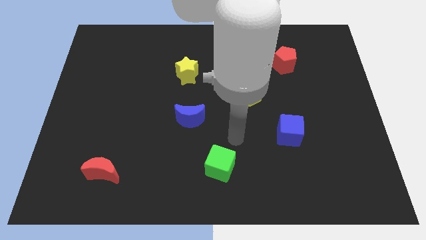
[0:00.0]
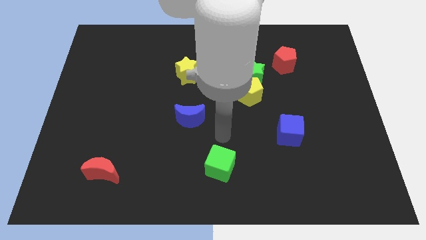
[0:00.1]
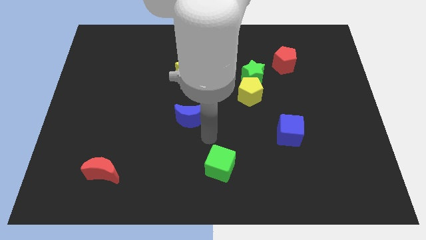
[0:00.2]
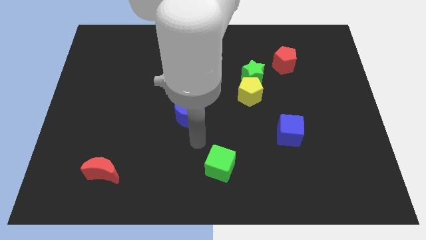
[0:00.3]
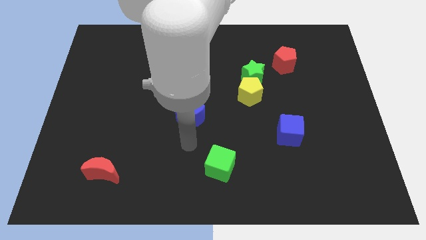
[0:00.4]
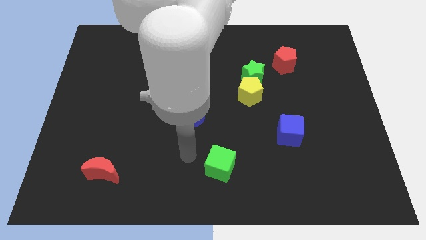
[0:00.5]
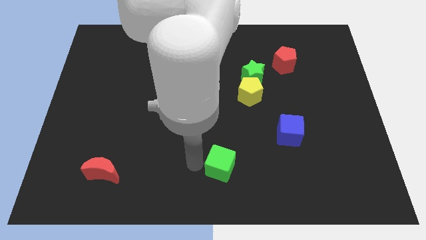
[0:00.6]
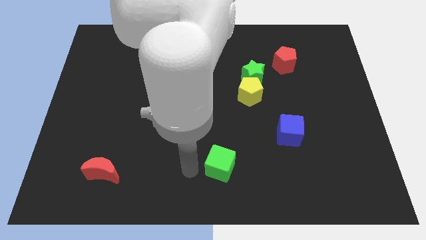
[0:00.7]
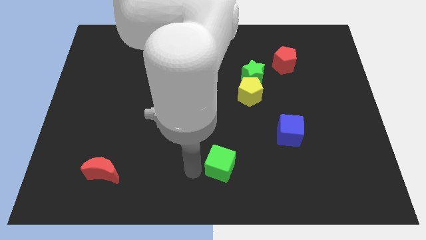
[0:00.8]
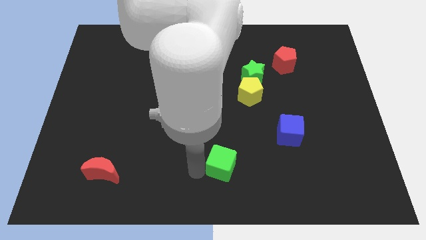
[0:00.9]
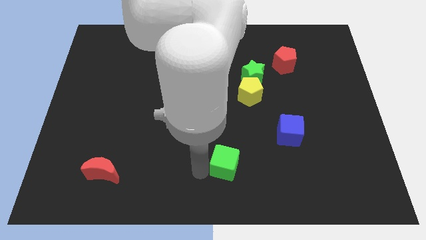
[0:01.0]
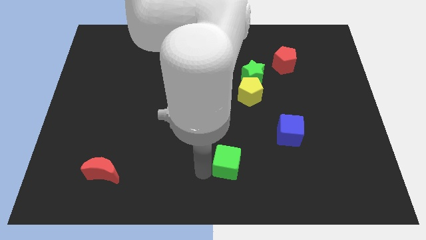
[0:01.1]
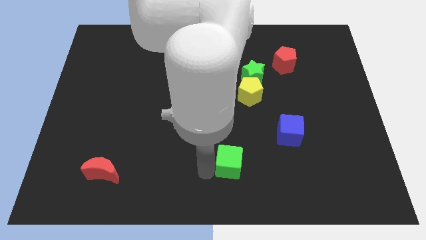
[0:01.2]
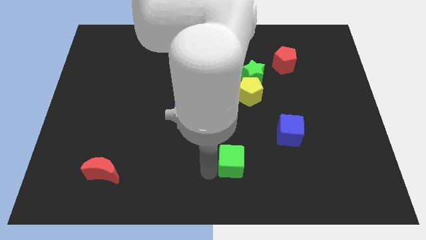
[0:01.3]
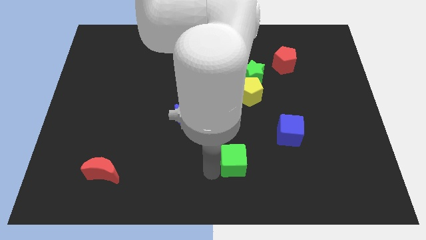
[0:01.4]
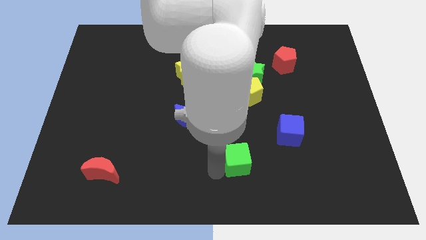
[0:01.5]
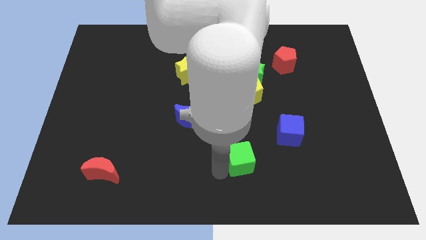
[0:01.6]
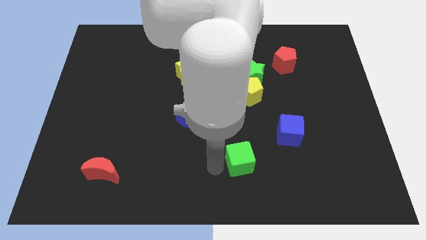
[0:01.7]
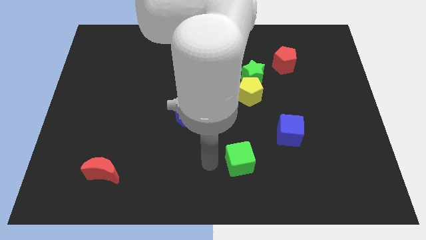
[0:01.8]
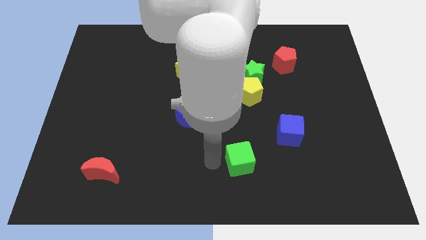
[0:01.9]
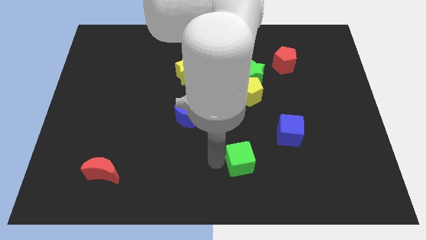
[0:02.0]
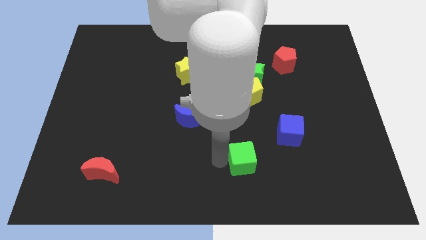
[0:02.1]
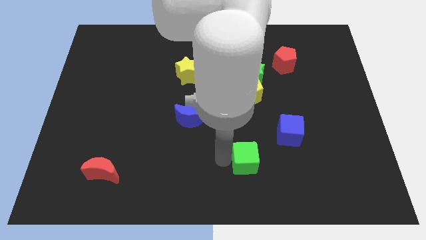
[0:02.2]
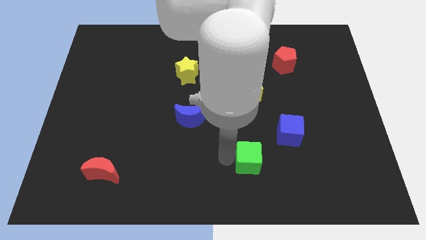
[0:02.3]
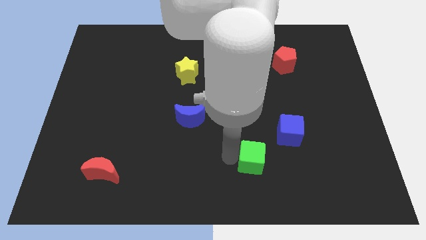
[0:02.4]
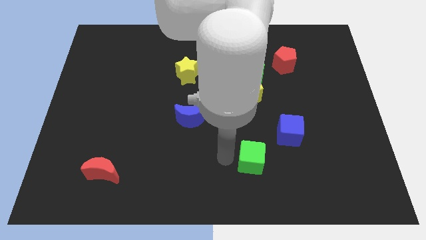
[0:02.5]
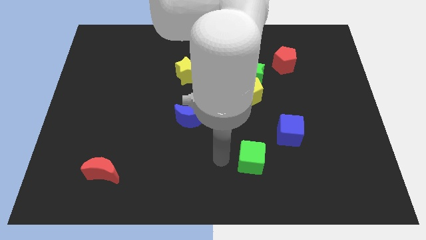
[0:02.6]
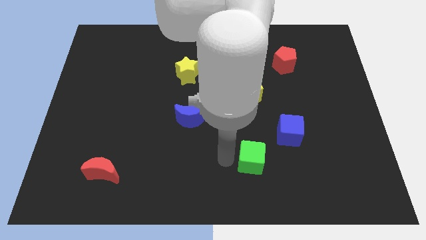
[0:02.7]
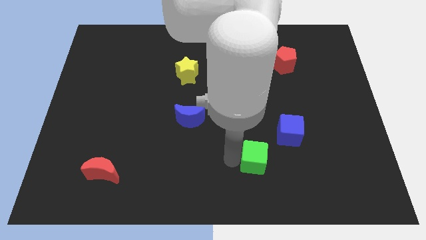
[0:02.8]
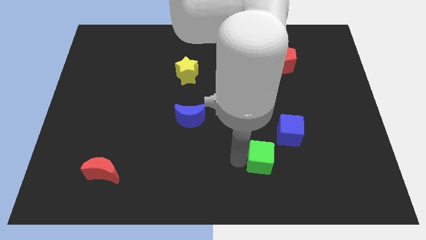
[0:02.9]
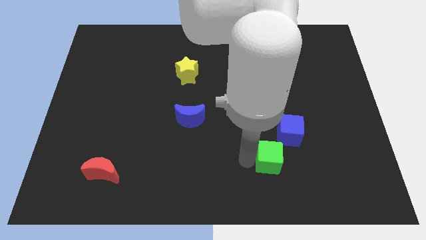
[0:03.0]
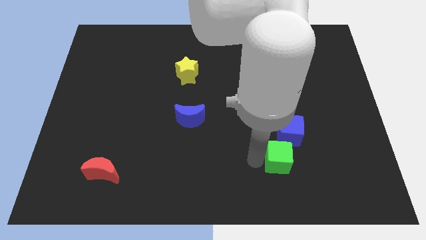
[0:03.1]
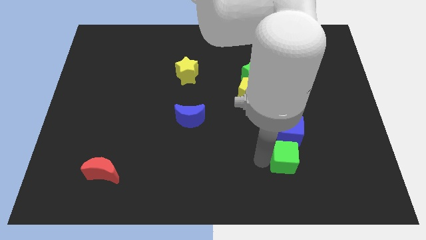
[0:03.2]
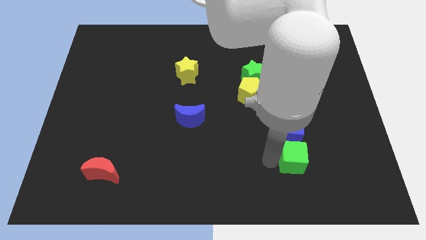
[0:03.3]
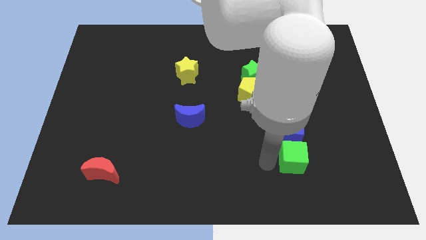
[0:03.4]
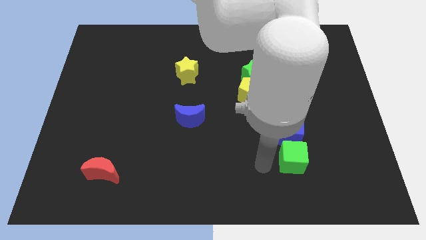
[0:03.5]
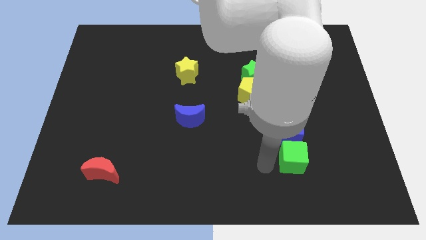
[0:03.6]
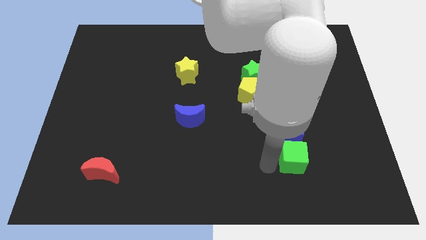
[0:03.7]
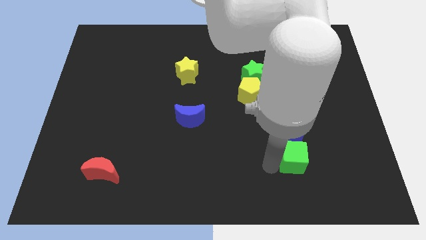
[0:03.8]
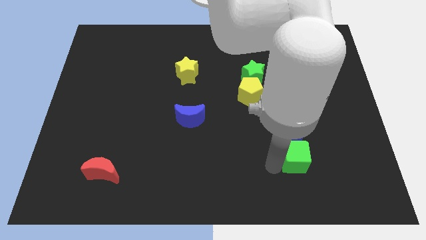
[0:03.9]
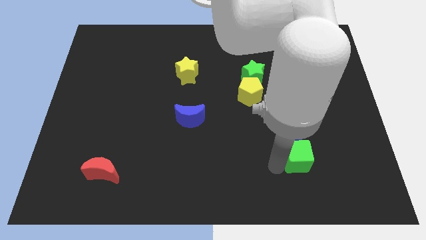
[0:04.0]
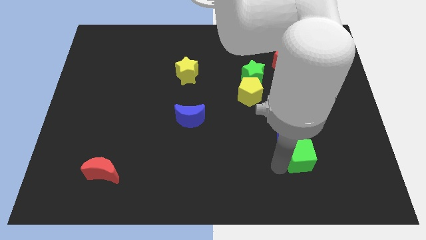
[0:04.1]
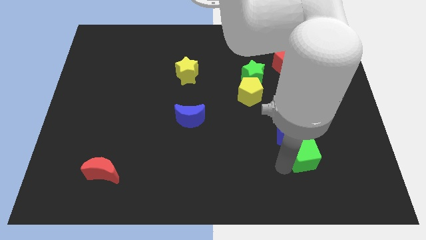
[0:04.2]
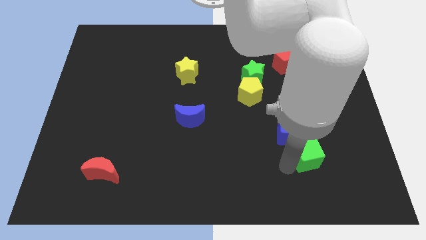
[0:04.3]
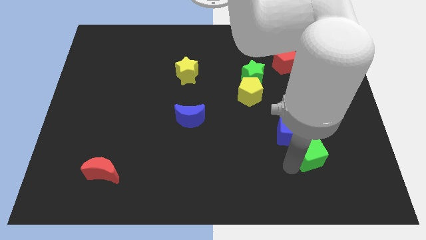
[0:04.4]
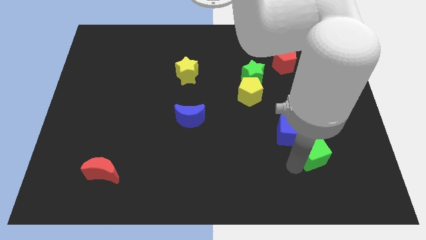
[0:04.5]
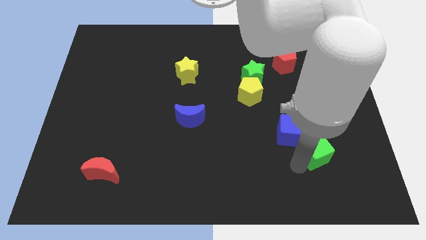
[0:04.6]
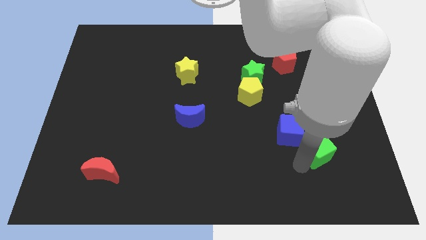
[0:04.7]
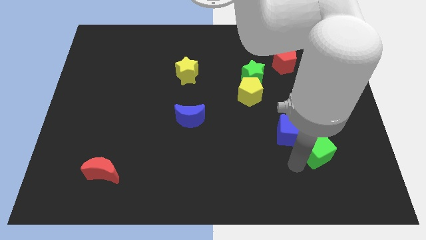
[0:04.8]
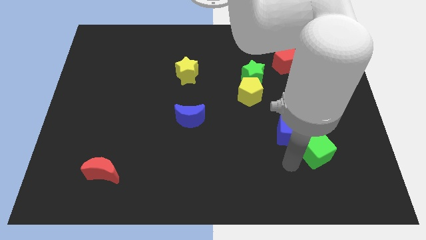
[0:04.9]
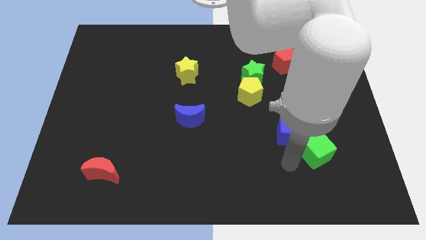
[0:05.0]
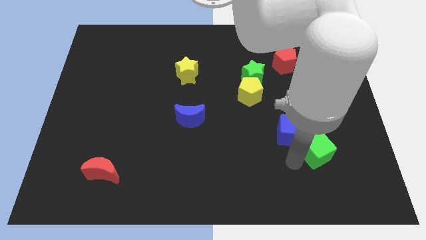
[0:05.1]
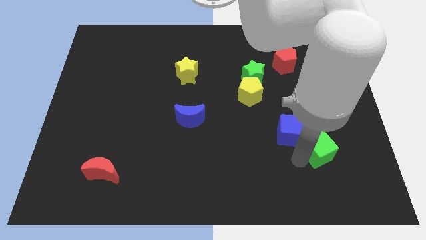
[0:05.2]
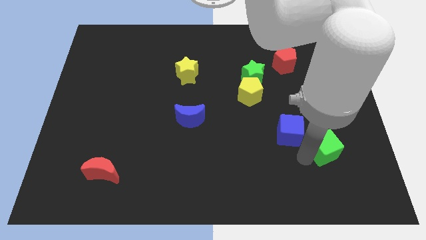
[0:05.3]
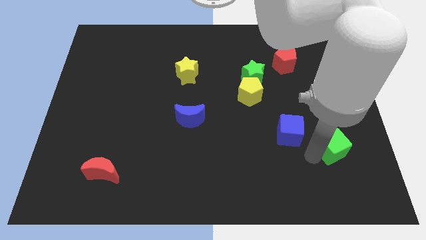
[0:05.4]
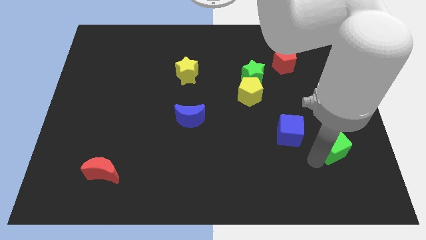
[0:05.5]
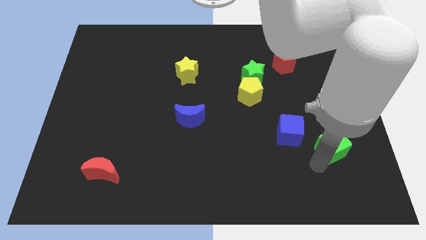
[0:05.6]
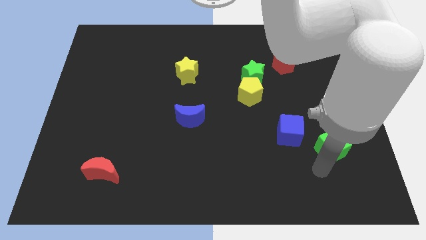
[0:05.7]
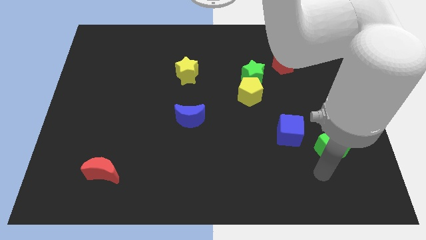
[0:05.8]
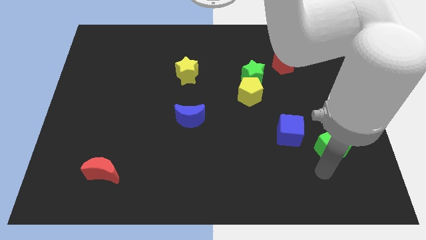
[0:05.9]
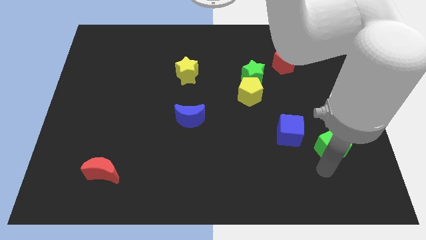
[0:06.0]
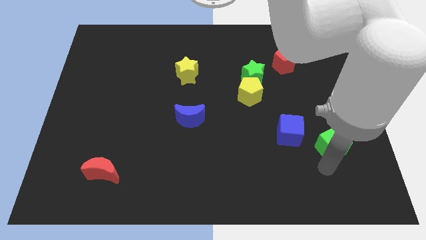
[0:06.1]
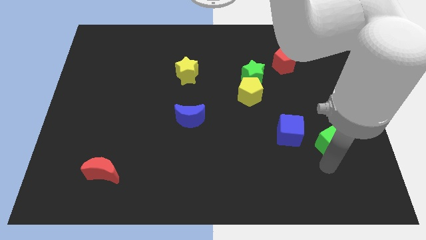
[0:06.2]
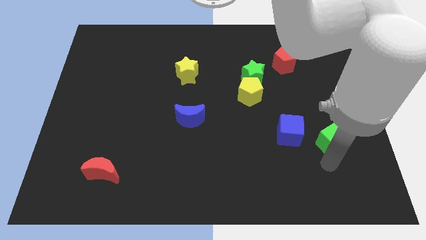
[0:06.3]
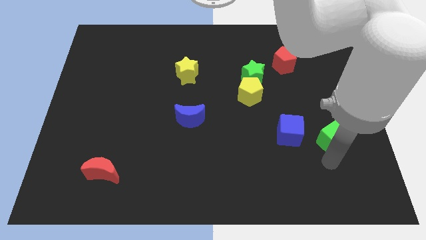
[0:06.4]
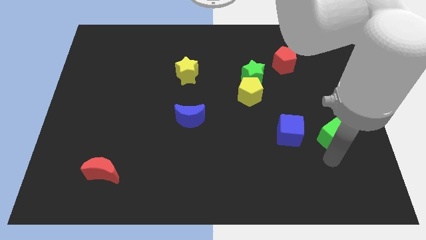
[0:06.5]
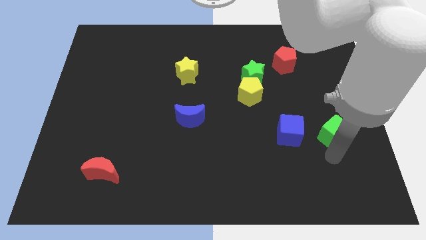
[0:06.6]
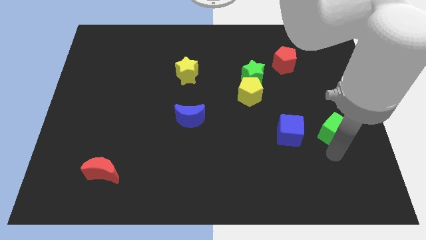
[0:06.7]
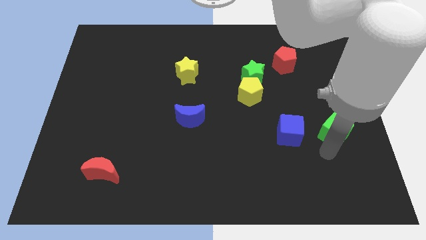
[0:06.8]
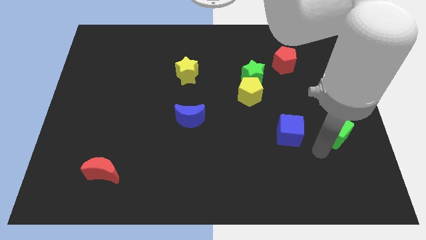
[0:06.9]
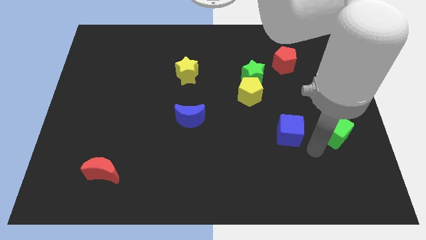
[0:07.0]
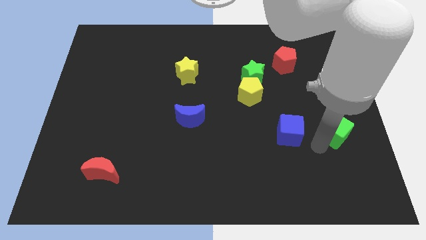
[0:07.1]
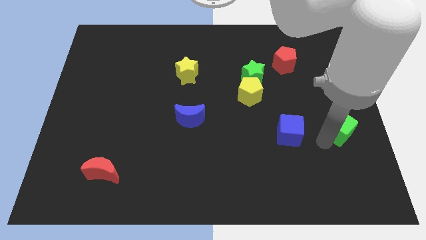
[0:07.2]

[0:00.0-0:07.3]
move the green cube to the right side of the board

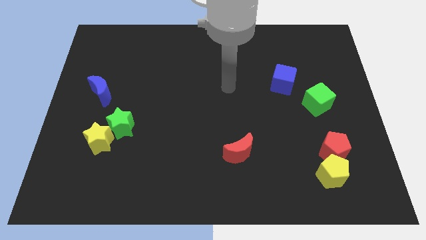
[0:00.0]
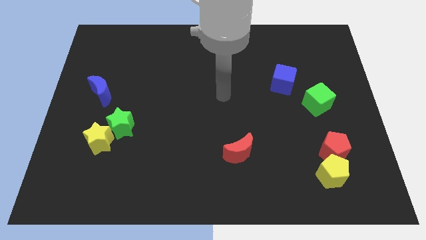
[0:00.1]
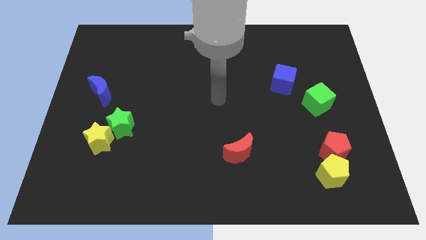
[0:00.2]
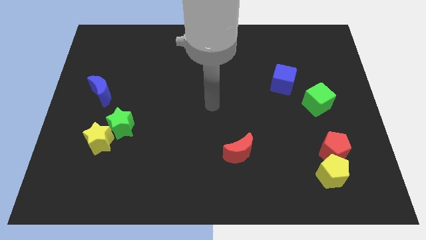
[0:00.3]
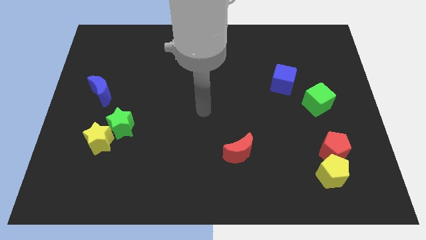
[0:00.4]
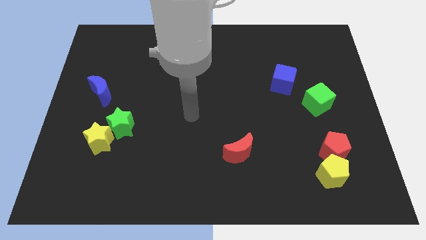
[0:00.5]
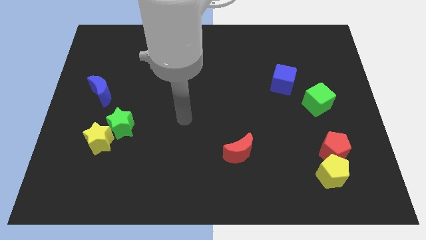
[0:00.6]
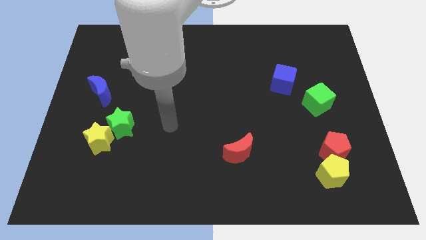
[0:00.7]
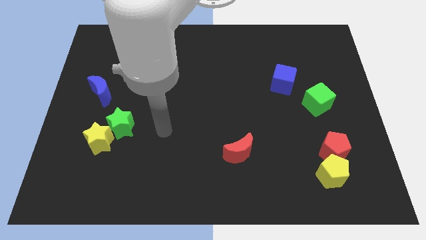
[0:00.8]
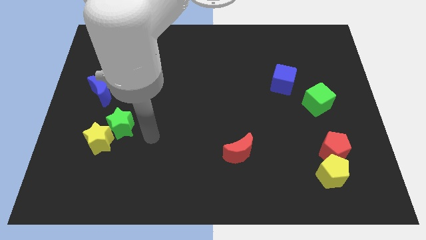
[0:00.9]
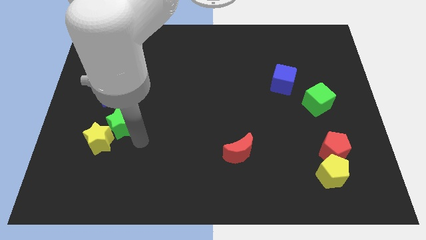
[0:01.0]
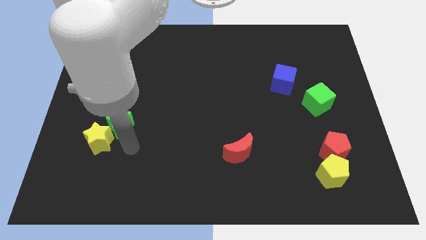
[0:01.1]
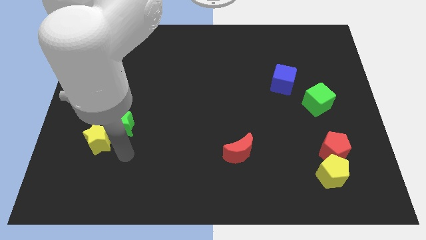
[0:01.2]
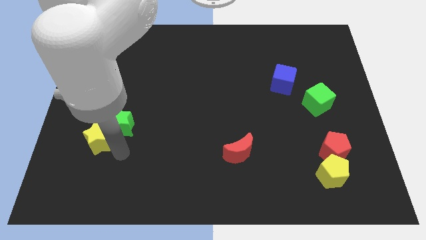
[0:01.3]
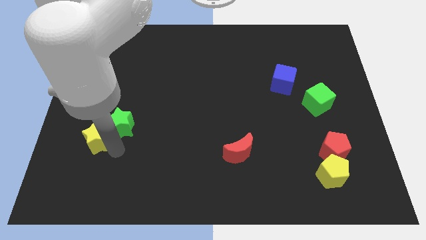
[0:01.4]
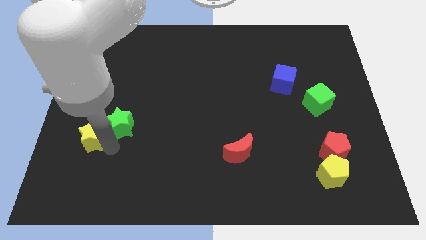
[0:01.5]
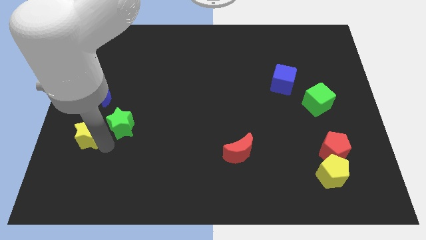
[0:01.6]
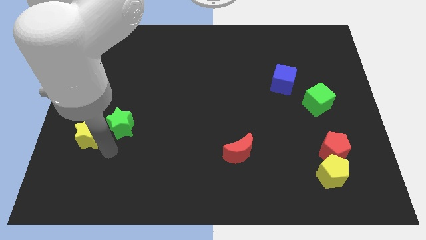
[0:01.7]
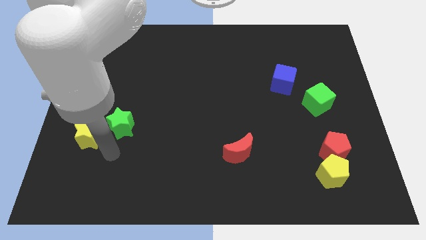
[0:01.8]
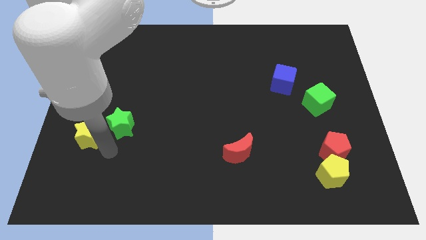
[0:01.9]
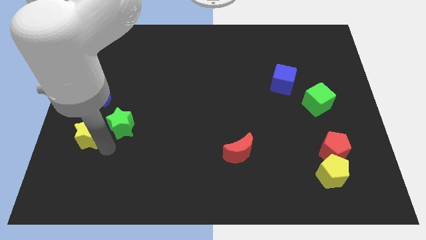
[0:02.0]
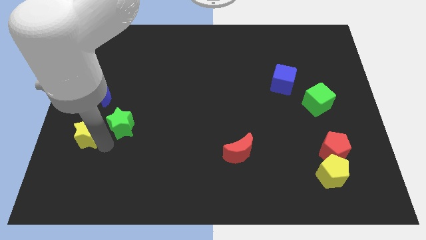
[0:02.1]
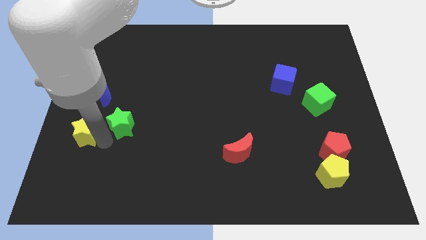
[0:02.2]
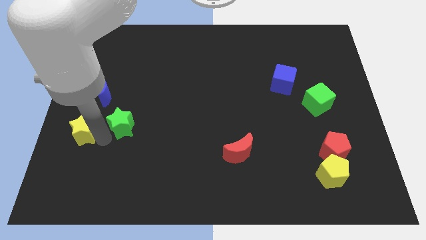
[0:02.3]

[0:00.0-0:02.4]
push the yellow star to the left side of the board
